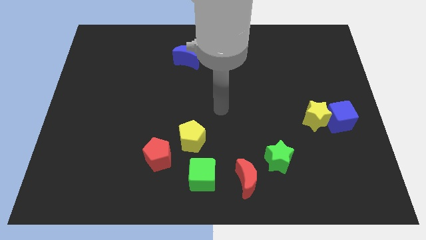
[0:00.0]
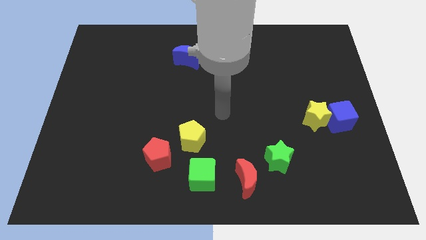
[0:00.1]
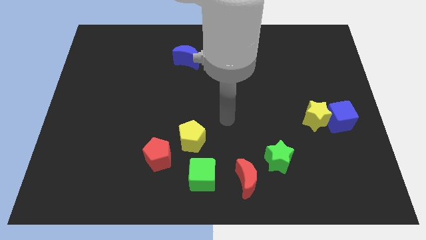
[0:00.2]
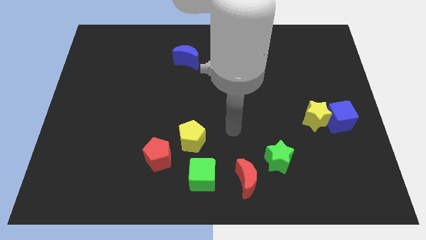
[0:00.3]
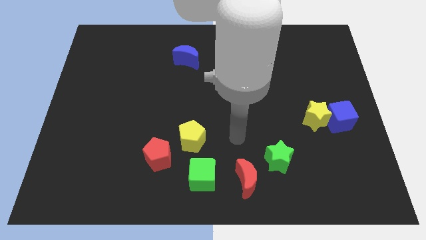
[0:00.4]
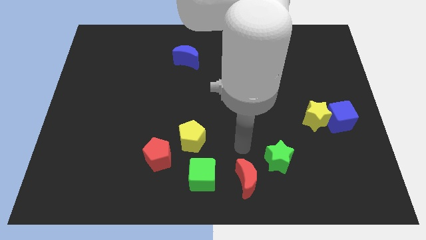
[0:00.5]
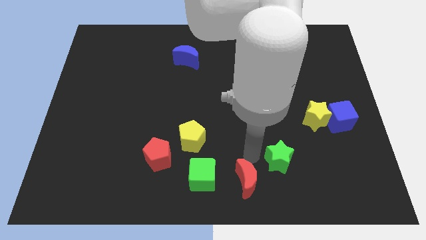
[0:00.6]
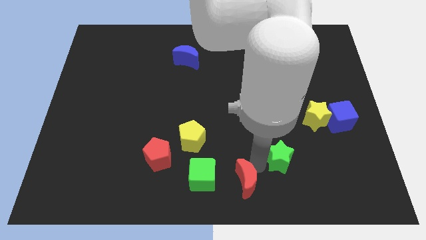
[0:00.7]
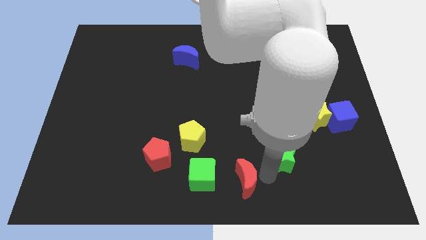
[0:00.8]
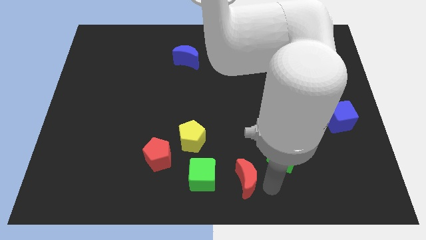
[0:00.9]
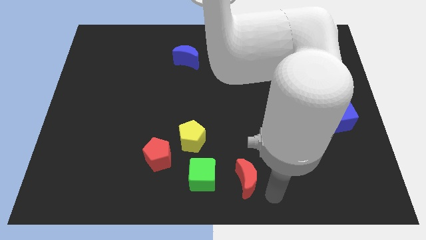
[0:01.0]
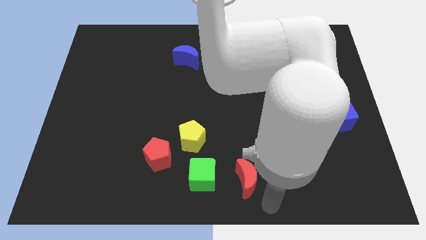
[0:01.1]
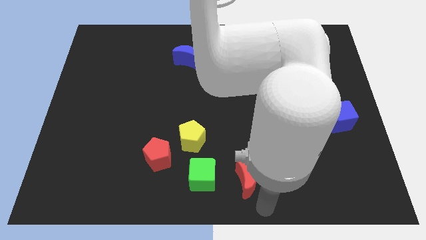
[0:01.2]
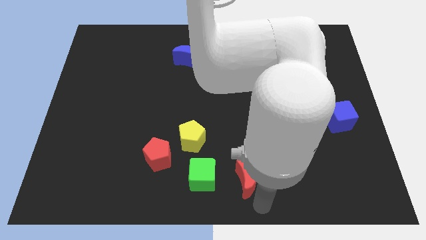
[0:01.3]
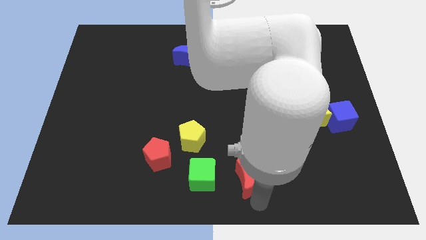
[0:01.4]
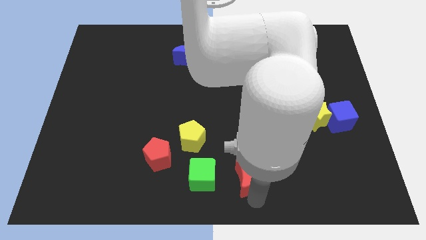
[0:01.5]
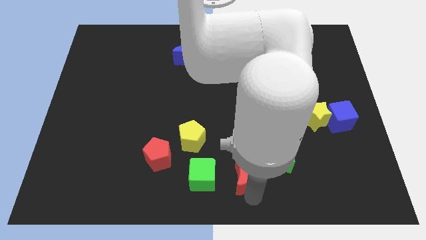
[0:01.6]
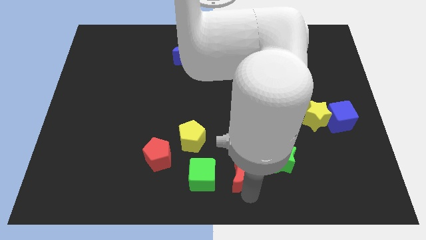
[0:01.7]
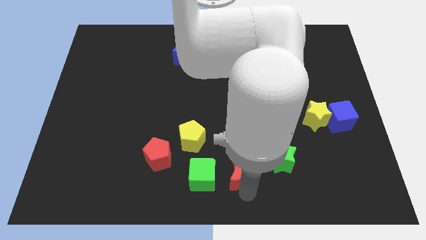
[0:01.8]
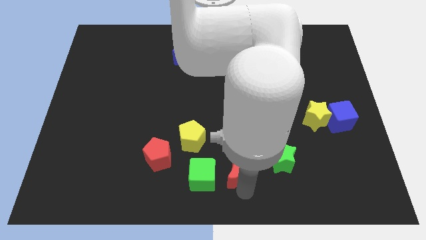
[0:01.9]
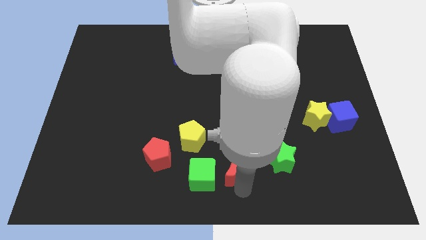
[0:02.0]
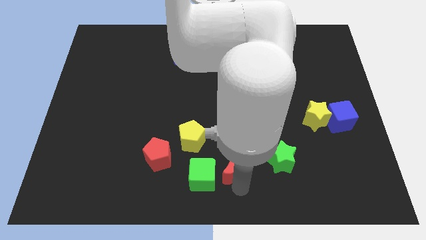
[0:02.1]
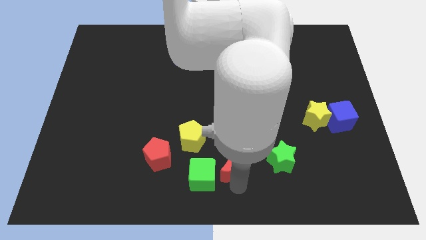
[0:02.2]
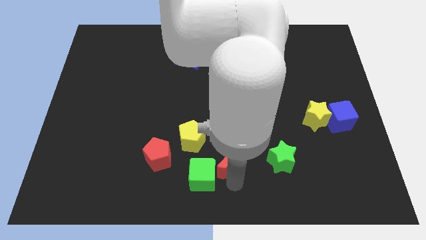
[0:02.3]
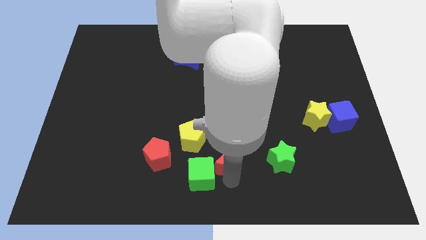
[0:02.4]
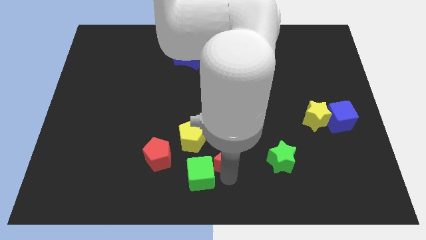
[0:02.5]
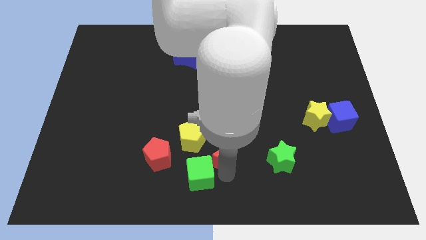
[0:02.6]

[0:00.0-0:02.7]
slightly push the red moon up and then left

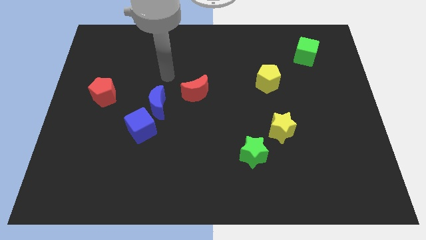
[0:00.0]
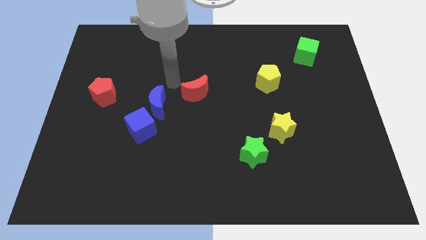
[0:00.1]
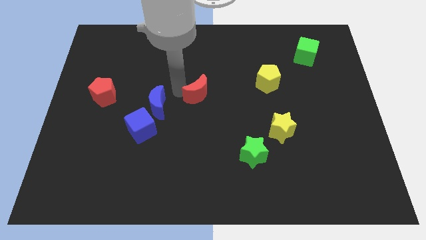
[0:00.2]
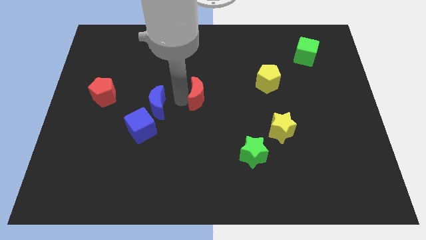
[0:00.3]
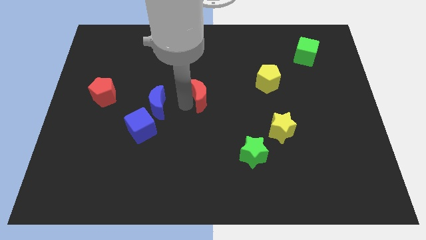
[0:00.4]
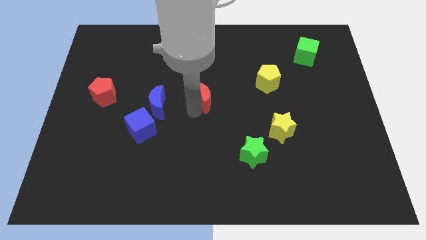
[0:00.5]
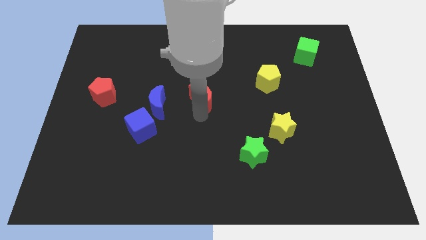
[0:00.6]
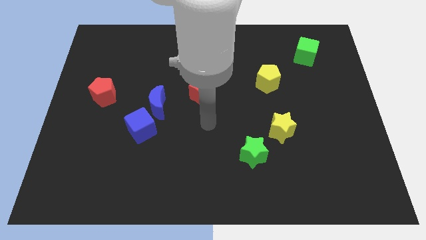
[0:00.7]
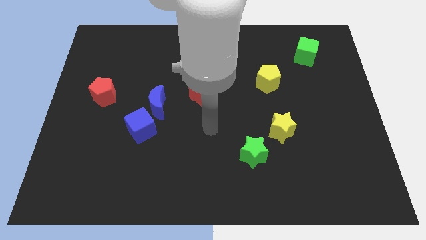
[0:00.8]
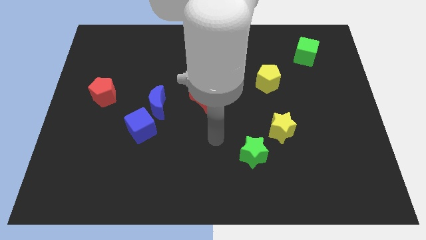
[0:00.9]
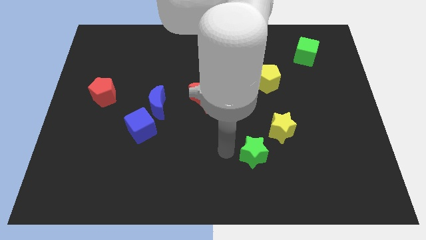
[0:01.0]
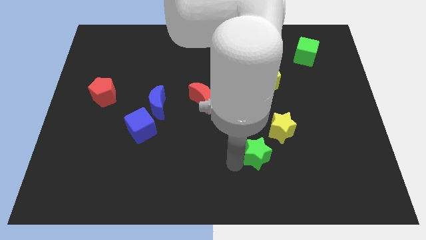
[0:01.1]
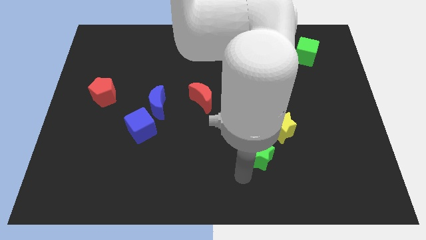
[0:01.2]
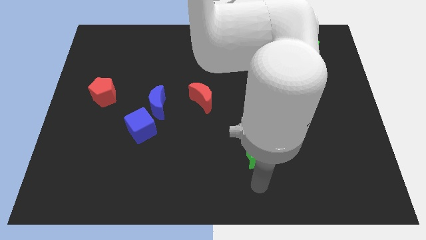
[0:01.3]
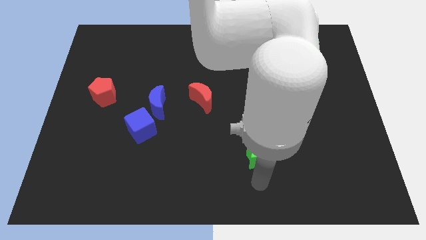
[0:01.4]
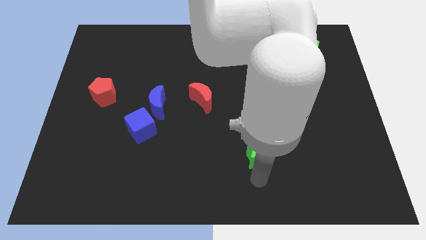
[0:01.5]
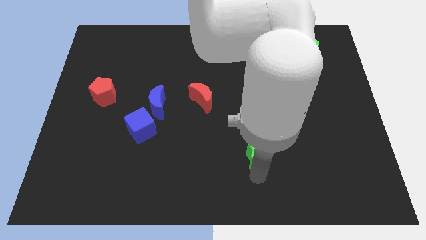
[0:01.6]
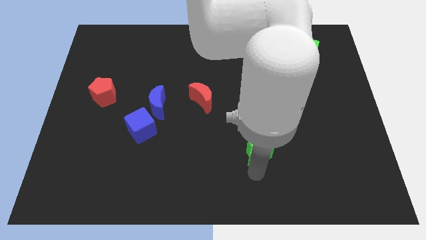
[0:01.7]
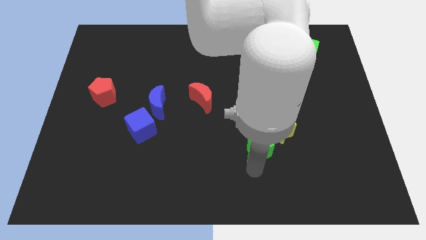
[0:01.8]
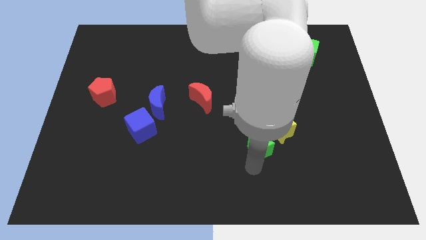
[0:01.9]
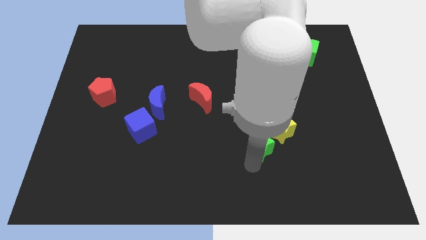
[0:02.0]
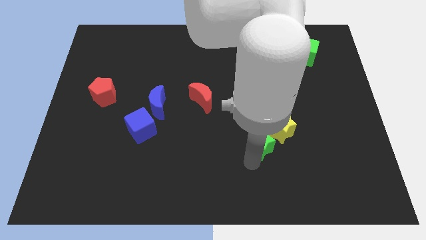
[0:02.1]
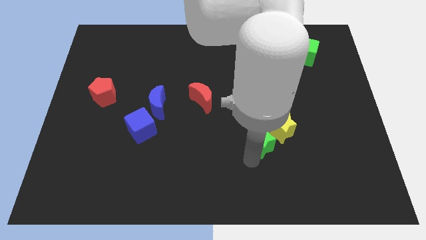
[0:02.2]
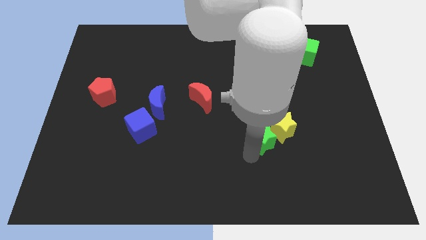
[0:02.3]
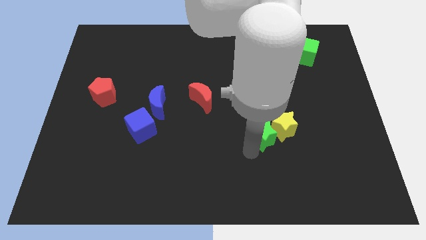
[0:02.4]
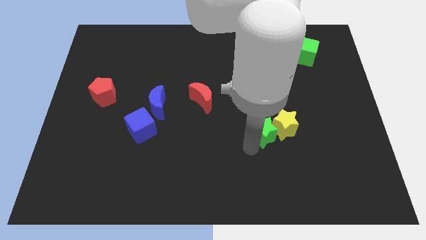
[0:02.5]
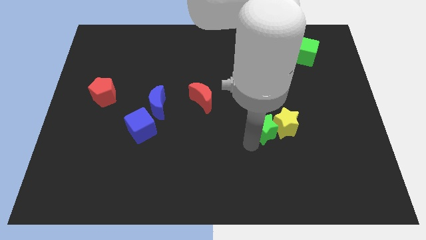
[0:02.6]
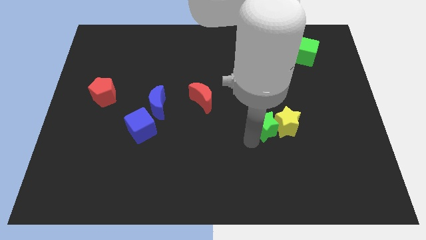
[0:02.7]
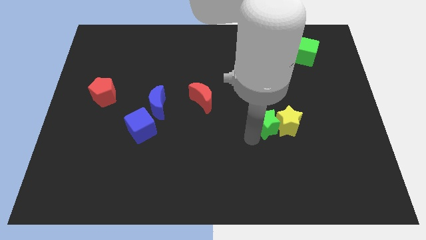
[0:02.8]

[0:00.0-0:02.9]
push the green star a little bit upwards and then to the right

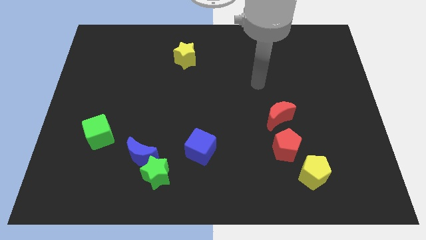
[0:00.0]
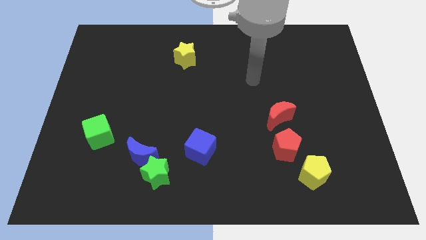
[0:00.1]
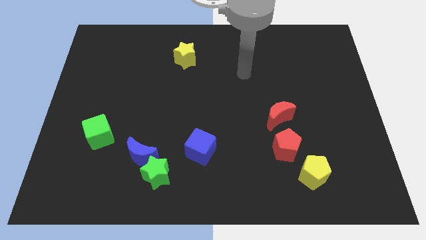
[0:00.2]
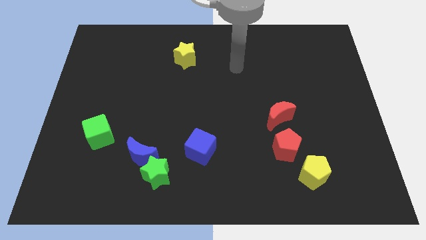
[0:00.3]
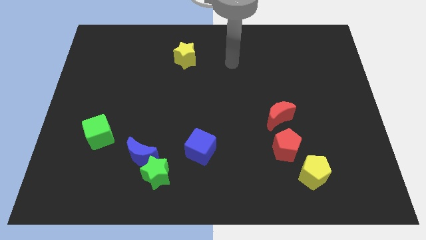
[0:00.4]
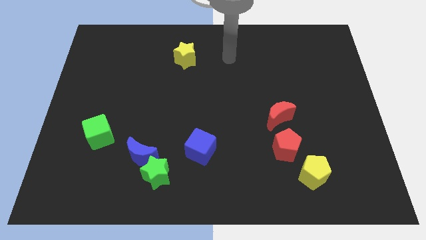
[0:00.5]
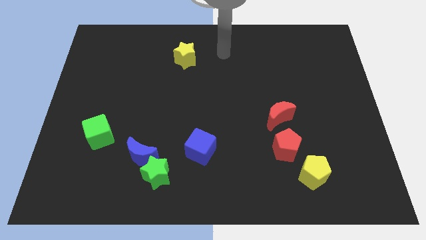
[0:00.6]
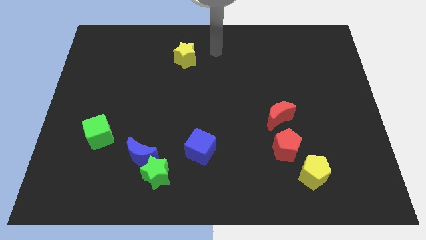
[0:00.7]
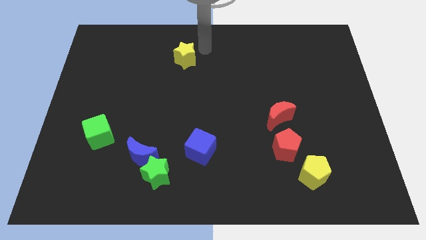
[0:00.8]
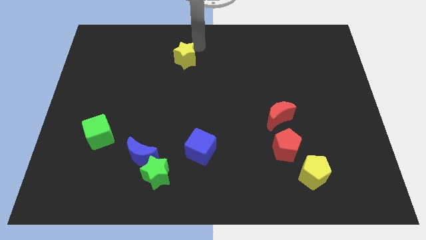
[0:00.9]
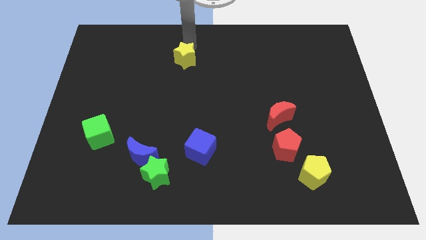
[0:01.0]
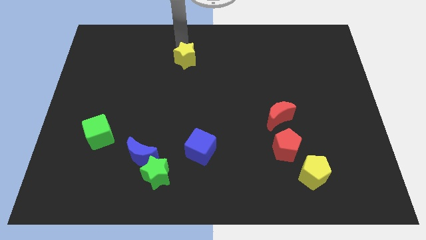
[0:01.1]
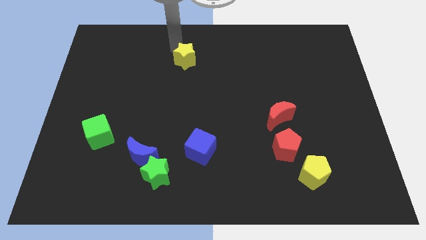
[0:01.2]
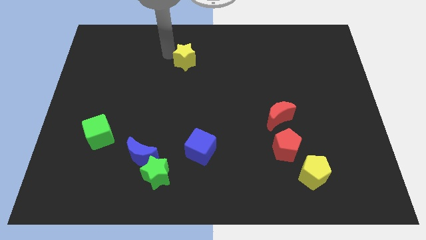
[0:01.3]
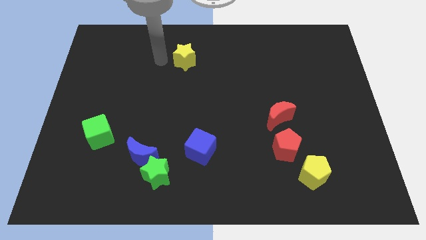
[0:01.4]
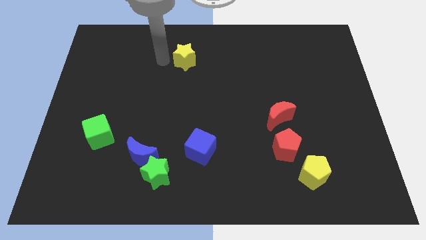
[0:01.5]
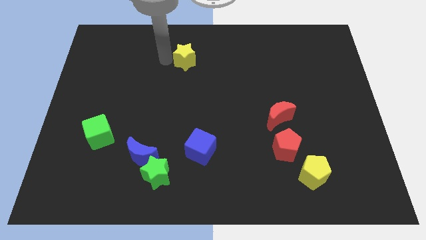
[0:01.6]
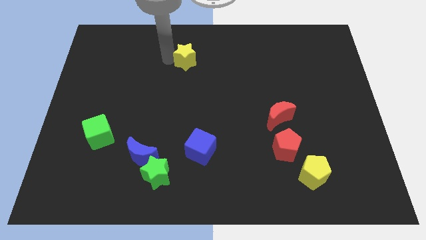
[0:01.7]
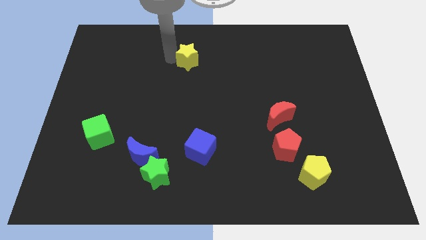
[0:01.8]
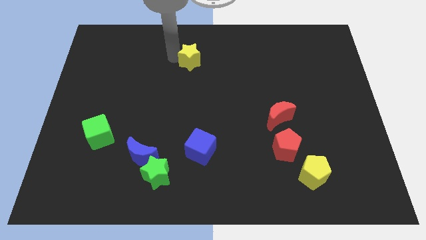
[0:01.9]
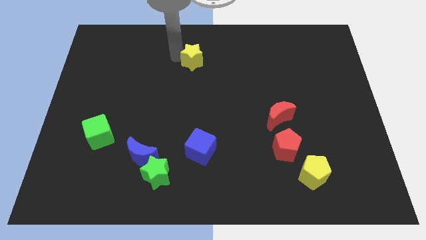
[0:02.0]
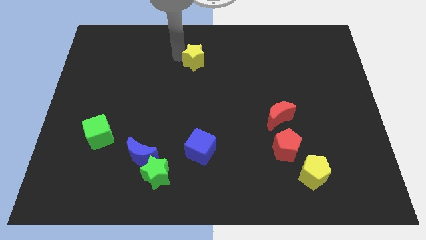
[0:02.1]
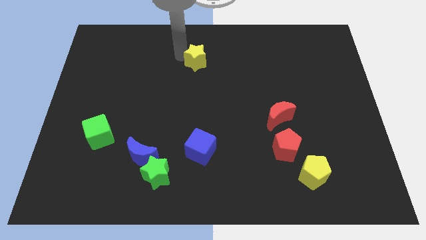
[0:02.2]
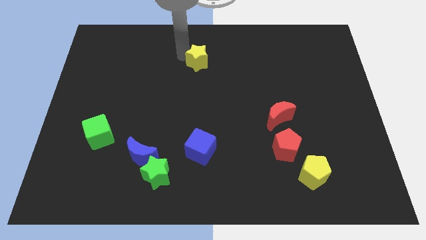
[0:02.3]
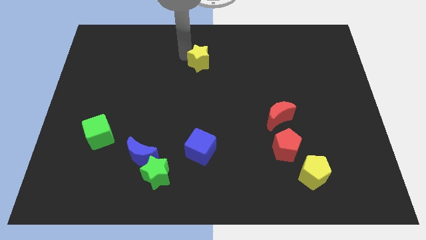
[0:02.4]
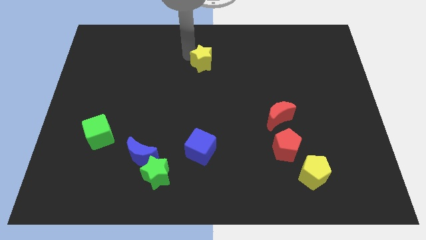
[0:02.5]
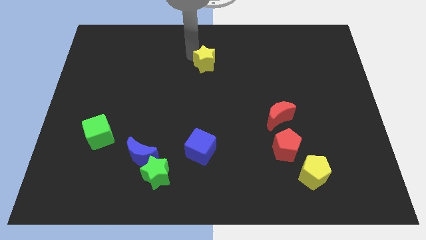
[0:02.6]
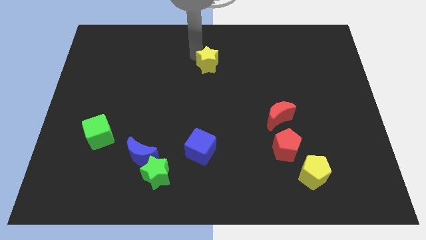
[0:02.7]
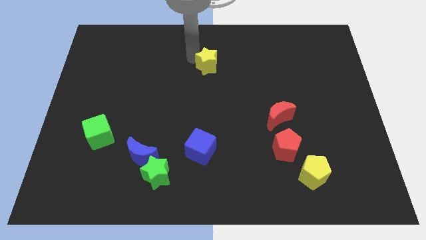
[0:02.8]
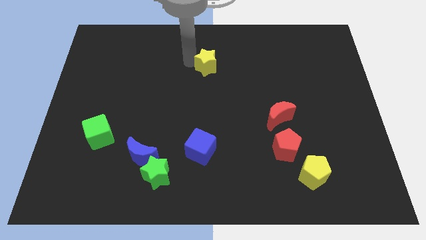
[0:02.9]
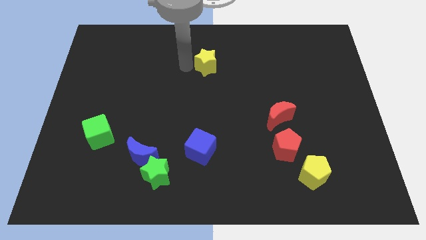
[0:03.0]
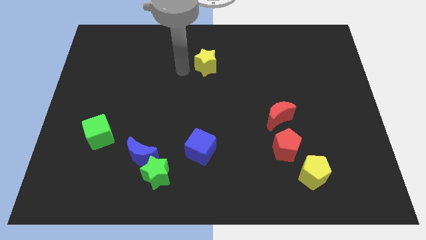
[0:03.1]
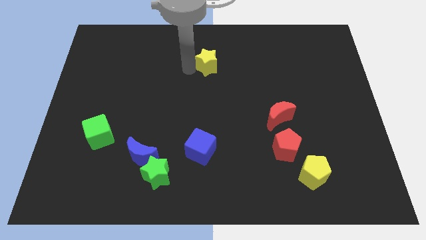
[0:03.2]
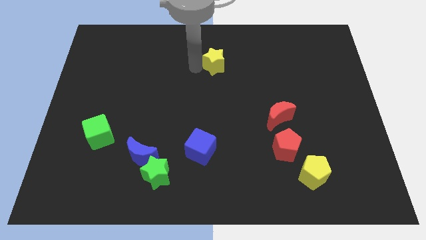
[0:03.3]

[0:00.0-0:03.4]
push the yellow star a little right
